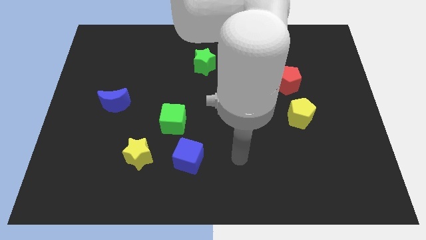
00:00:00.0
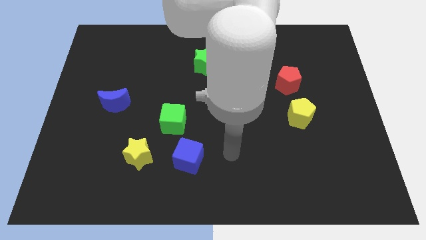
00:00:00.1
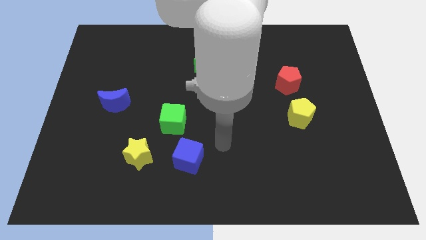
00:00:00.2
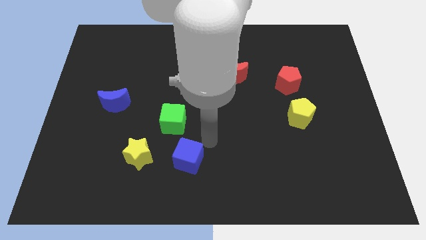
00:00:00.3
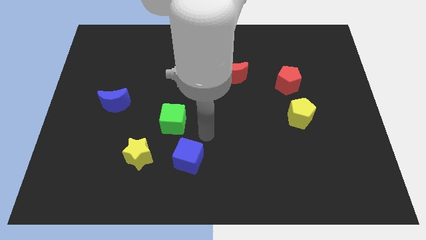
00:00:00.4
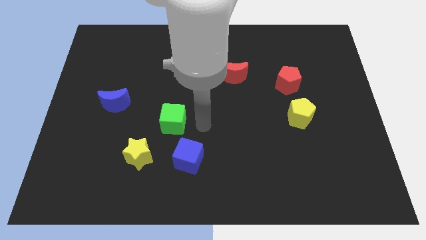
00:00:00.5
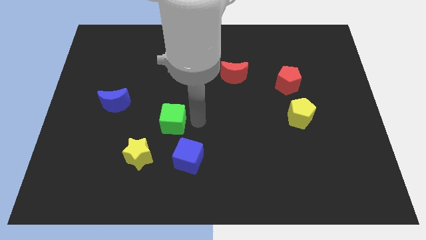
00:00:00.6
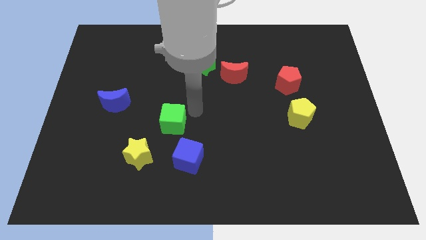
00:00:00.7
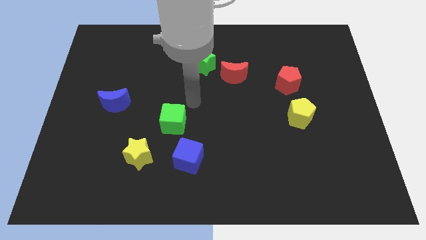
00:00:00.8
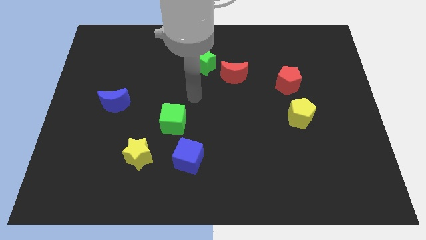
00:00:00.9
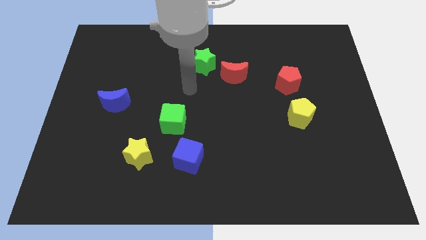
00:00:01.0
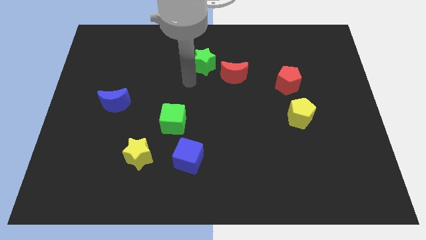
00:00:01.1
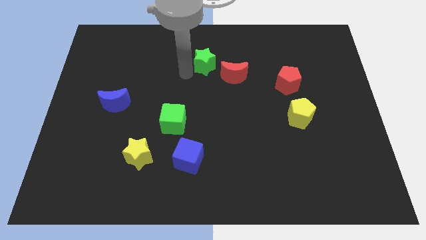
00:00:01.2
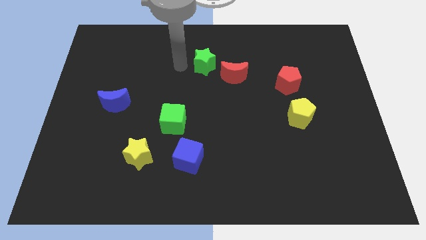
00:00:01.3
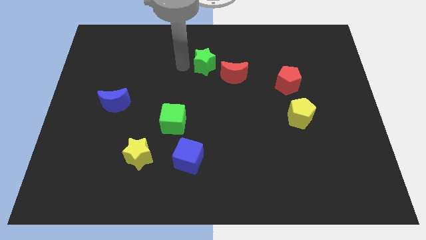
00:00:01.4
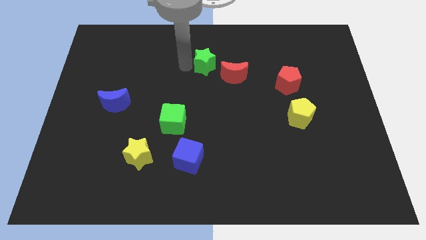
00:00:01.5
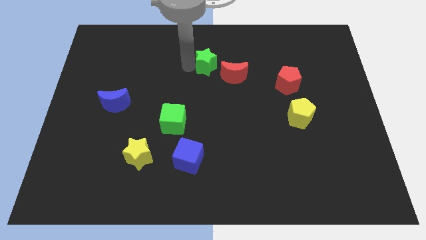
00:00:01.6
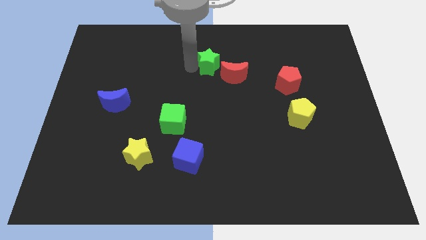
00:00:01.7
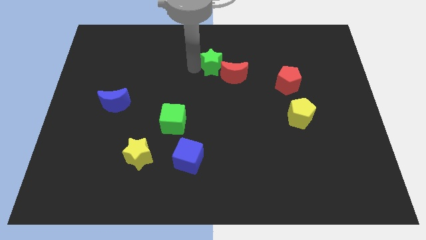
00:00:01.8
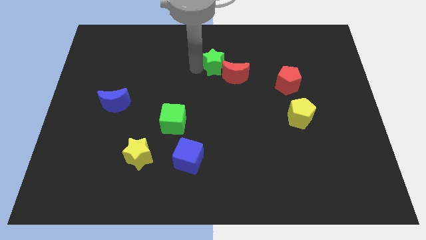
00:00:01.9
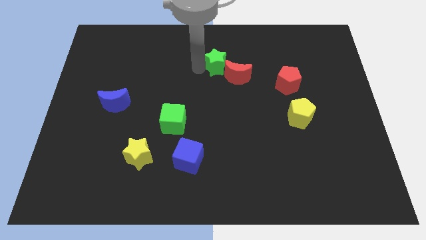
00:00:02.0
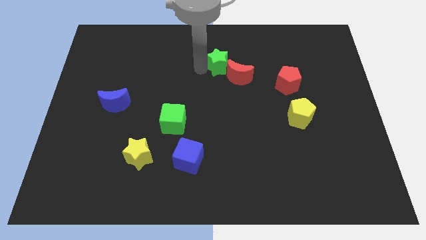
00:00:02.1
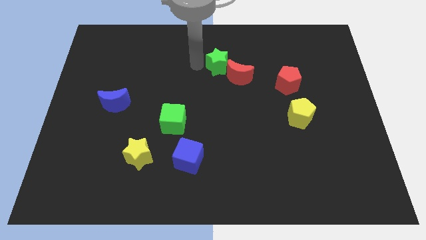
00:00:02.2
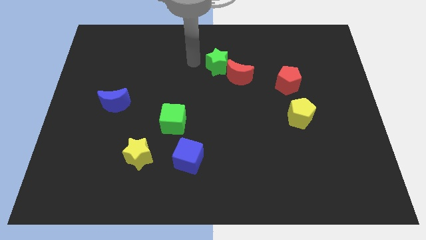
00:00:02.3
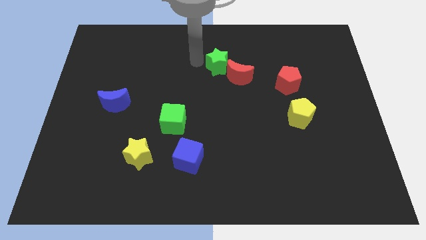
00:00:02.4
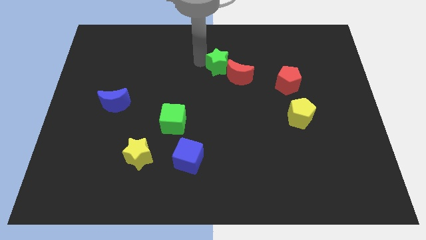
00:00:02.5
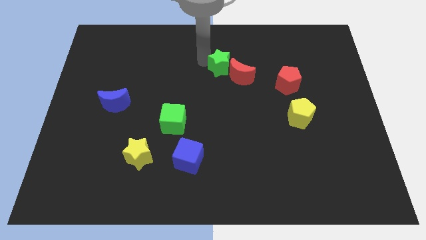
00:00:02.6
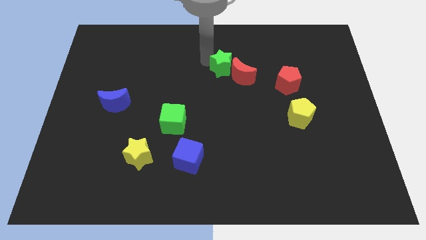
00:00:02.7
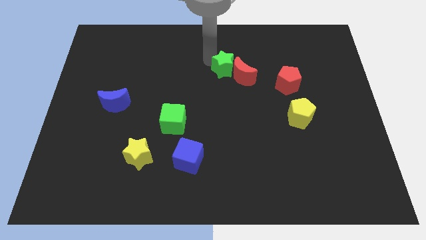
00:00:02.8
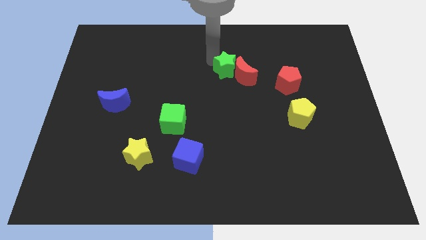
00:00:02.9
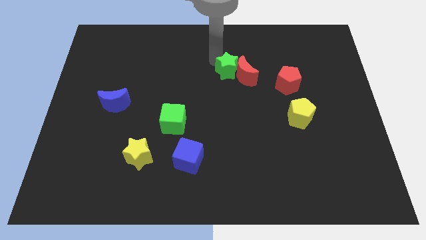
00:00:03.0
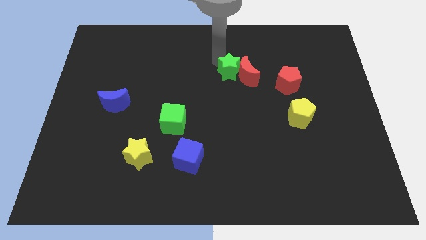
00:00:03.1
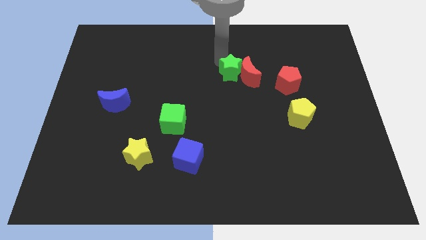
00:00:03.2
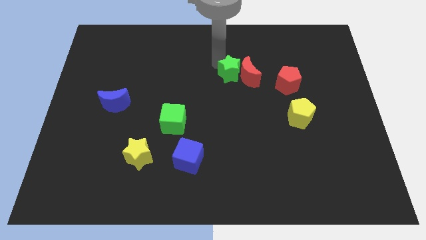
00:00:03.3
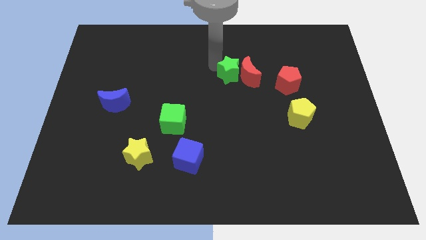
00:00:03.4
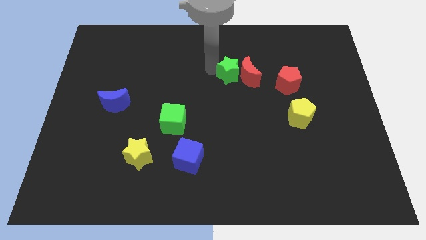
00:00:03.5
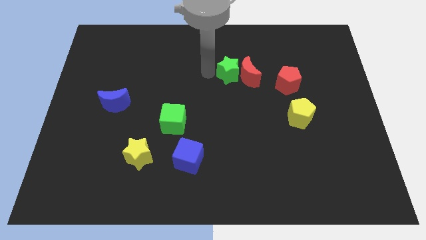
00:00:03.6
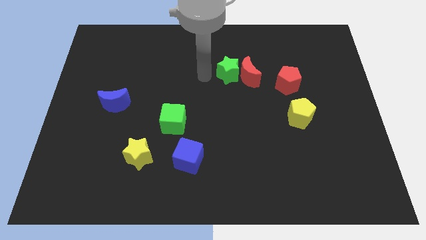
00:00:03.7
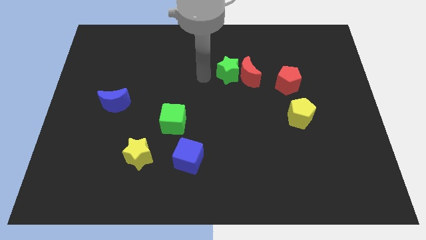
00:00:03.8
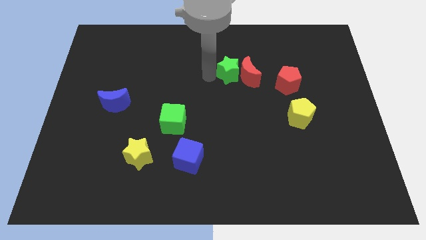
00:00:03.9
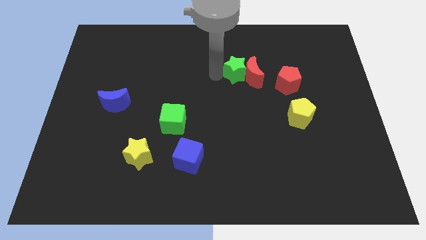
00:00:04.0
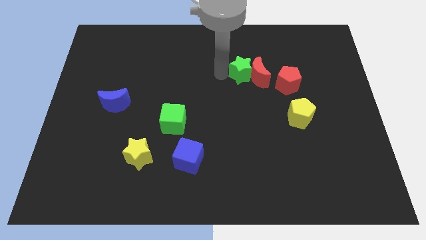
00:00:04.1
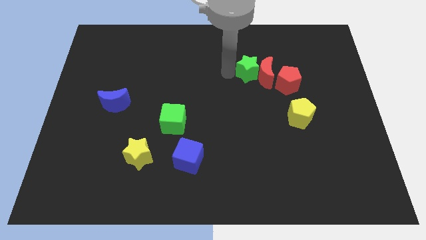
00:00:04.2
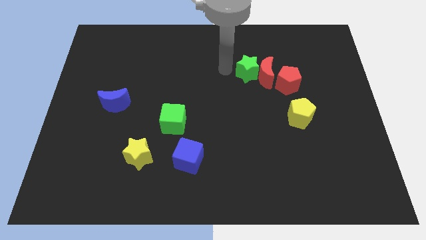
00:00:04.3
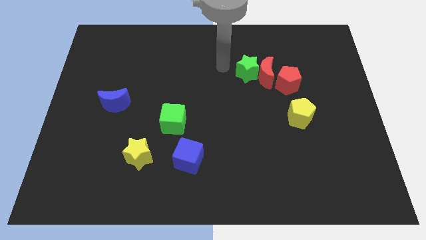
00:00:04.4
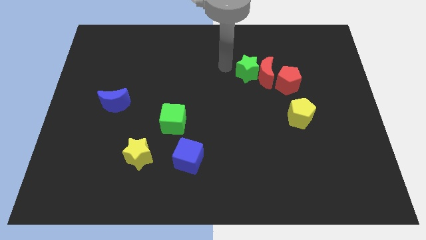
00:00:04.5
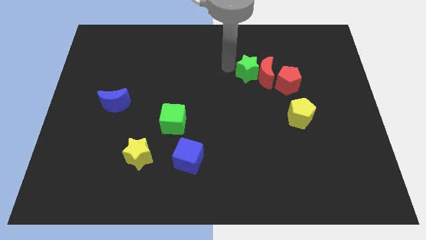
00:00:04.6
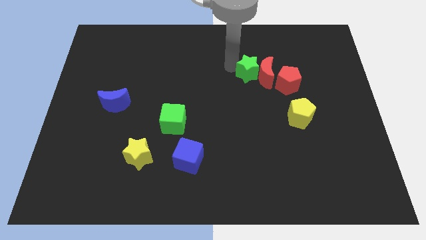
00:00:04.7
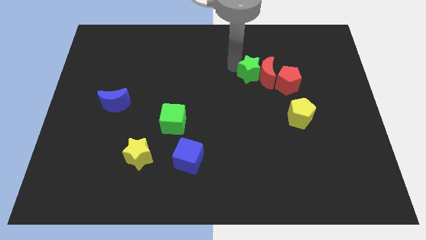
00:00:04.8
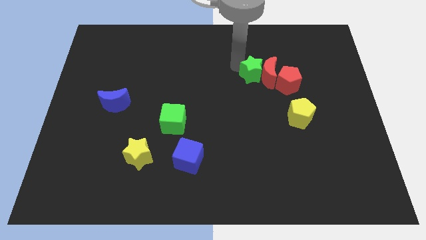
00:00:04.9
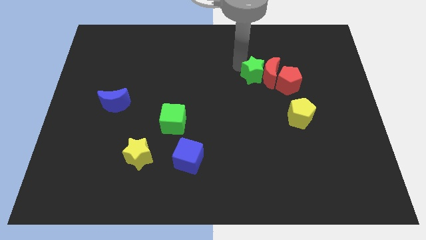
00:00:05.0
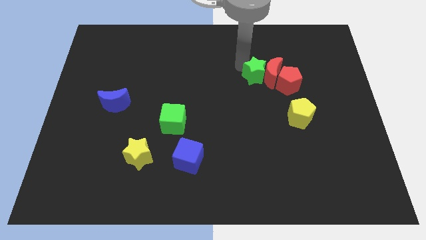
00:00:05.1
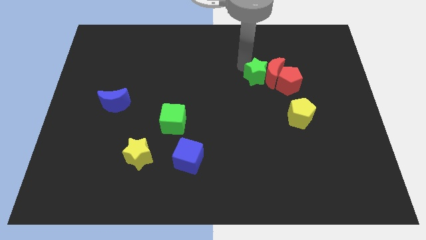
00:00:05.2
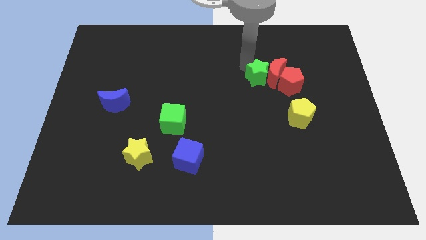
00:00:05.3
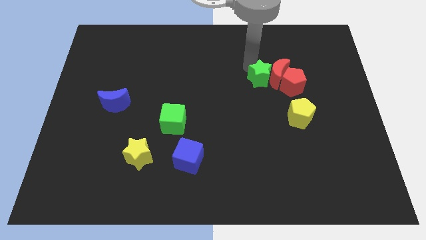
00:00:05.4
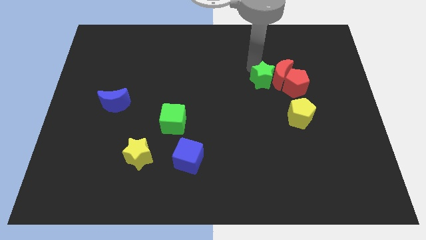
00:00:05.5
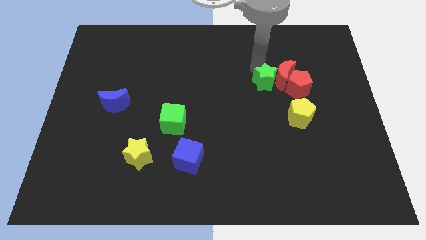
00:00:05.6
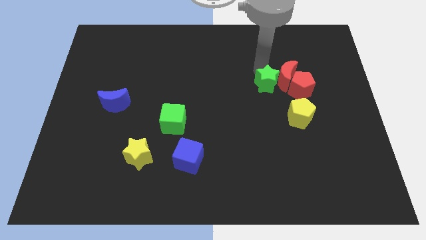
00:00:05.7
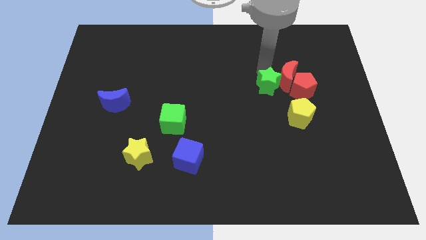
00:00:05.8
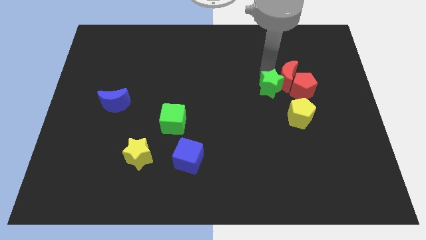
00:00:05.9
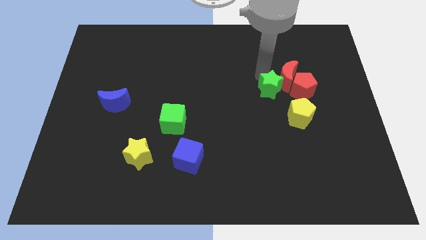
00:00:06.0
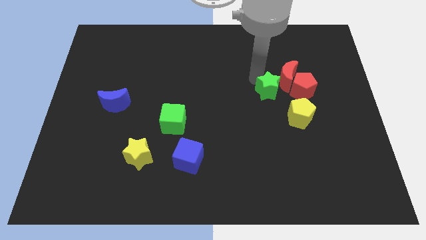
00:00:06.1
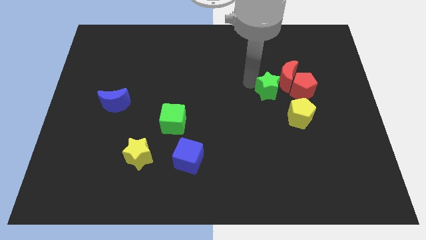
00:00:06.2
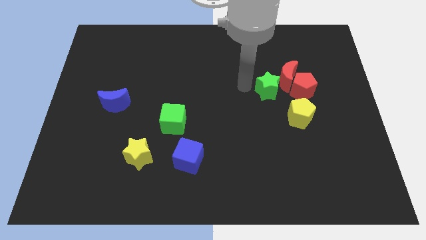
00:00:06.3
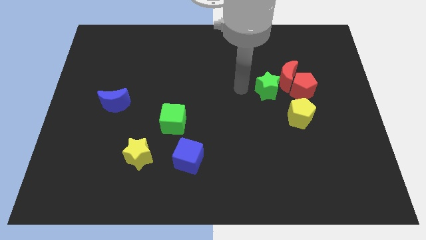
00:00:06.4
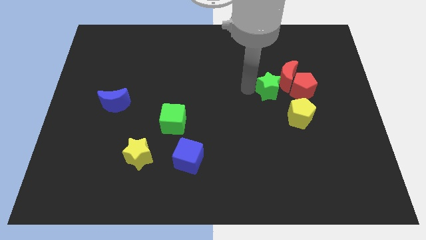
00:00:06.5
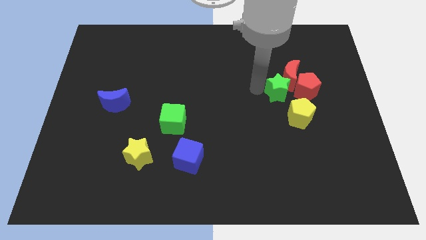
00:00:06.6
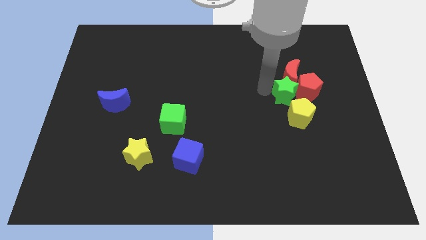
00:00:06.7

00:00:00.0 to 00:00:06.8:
slide the green star close to the red pentagon

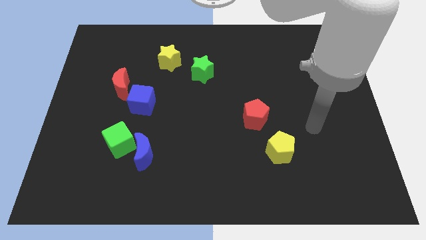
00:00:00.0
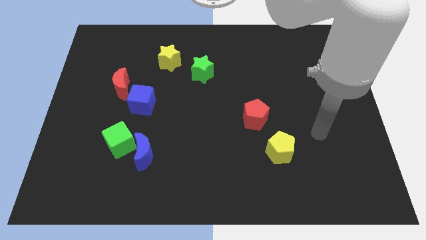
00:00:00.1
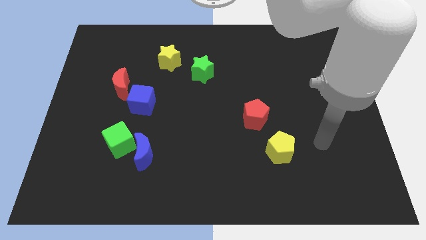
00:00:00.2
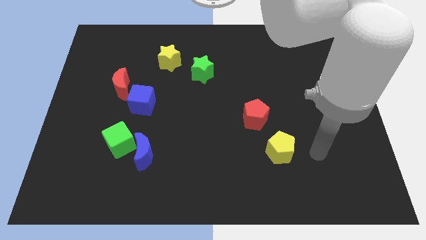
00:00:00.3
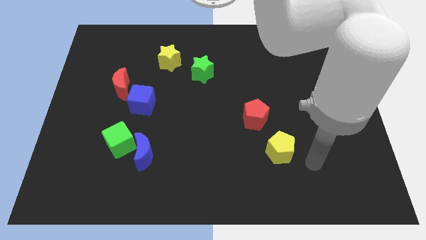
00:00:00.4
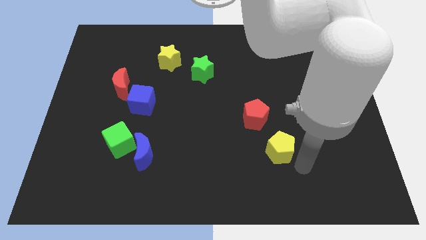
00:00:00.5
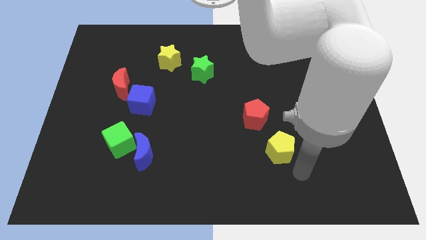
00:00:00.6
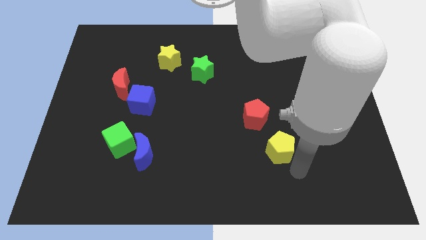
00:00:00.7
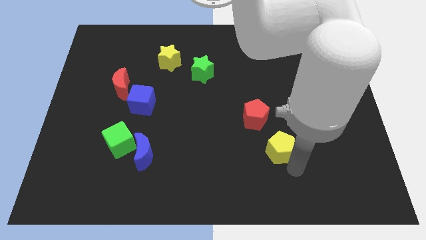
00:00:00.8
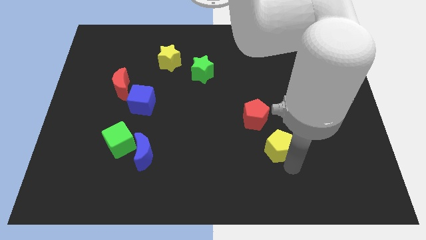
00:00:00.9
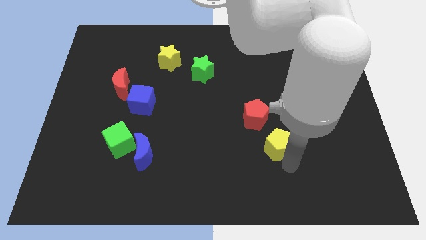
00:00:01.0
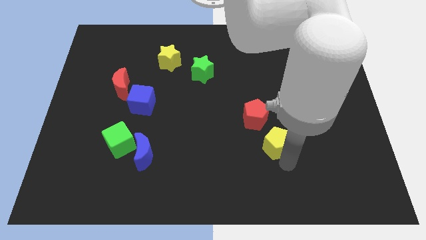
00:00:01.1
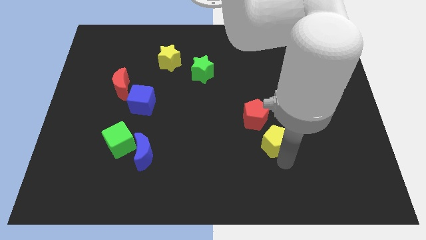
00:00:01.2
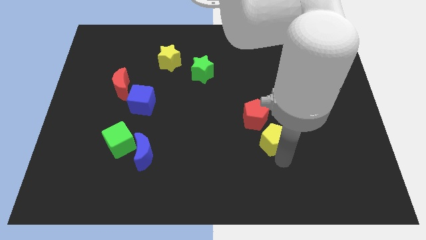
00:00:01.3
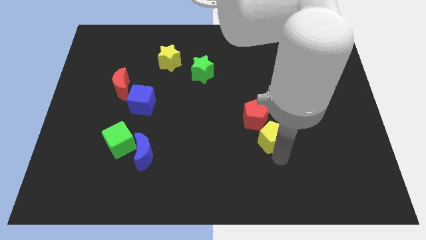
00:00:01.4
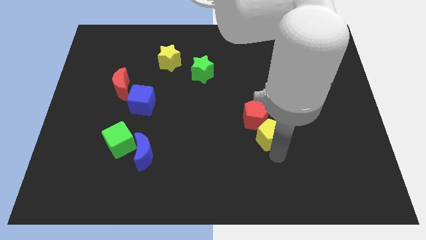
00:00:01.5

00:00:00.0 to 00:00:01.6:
push the yellow pentagon close to the red pentagon
